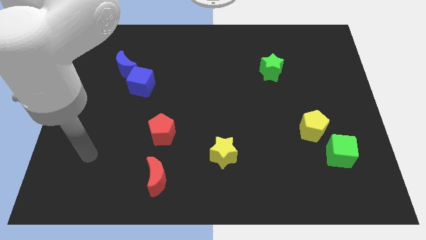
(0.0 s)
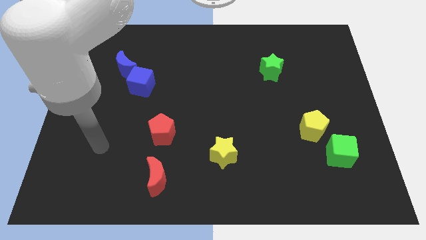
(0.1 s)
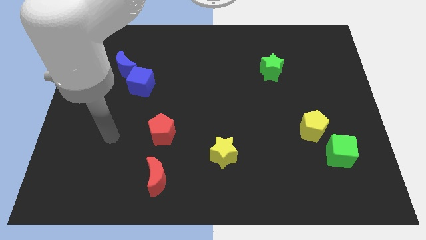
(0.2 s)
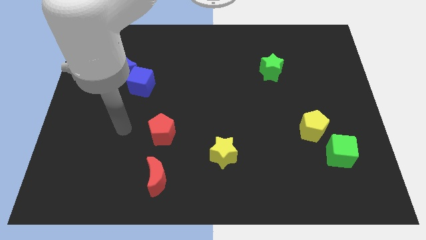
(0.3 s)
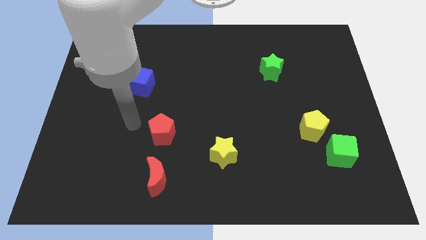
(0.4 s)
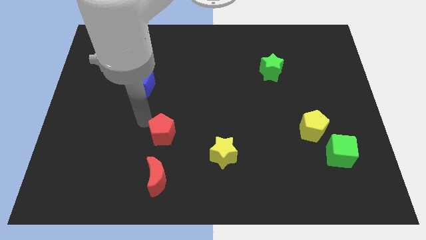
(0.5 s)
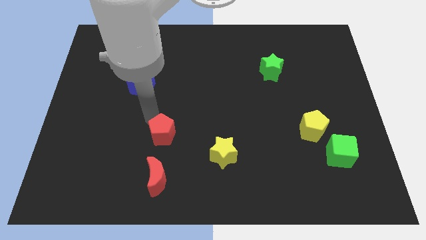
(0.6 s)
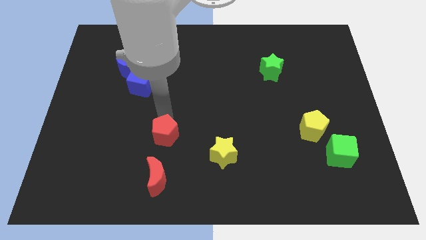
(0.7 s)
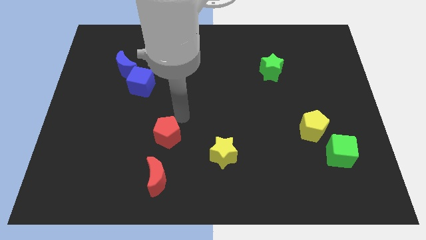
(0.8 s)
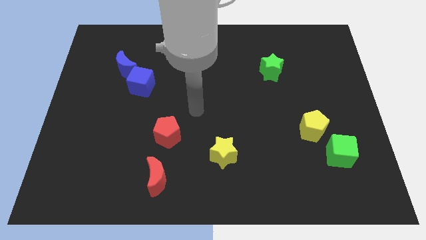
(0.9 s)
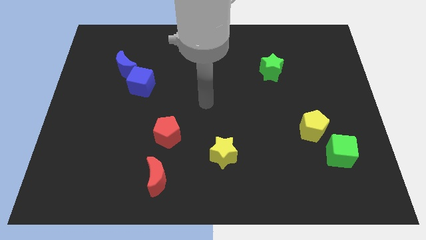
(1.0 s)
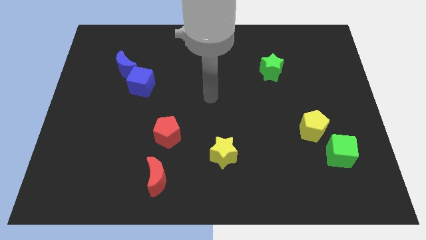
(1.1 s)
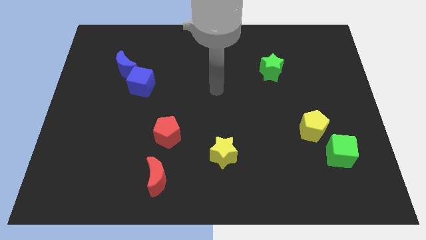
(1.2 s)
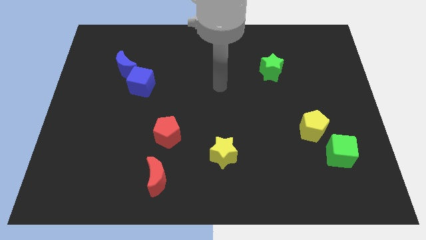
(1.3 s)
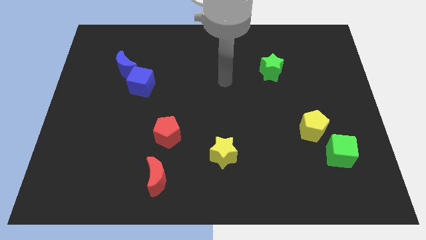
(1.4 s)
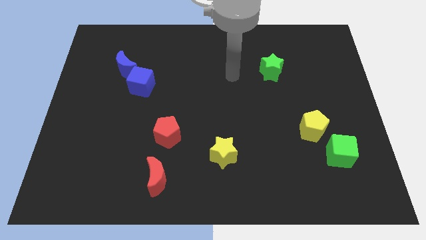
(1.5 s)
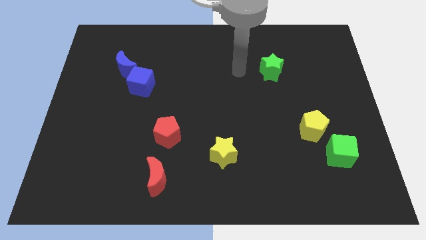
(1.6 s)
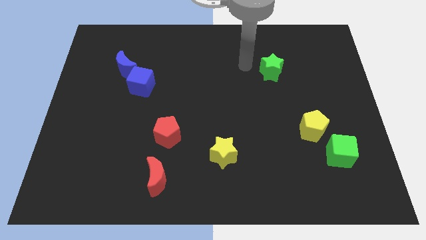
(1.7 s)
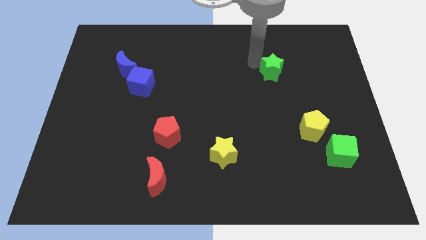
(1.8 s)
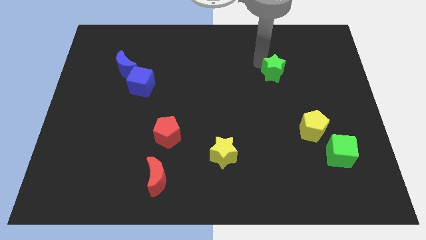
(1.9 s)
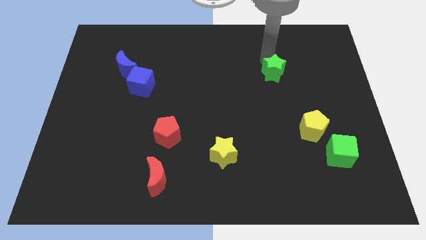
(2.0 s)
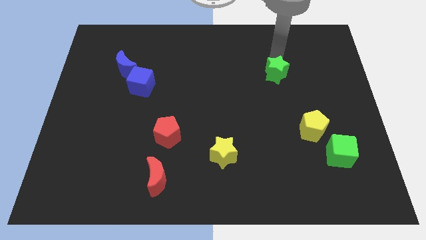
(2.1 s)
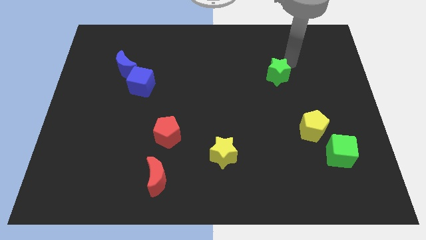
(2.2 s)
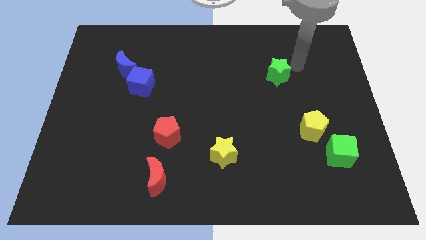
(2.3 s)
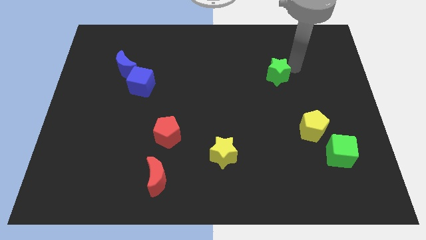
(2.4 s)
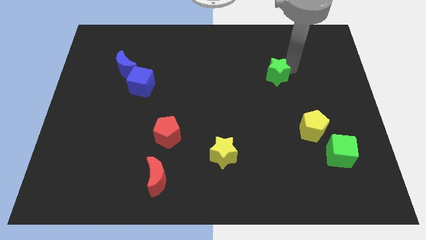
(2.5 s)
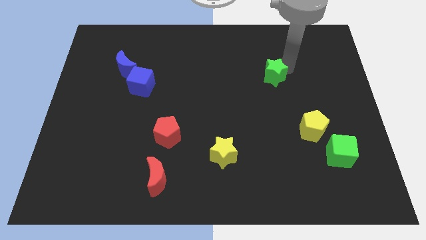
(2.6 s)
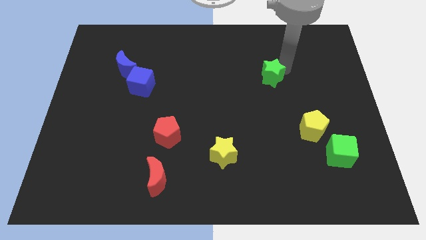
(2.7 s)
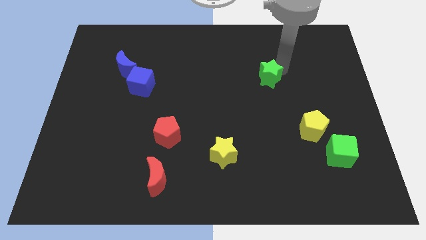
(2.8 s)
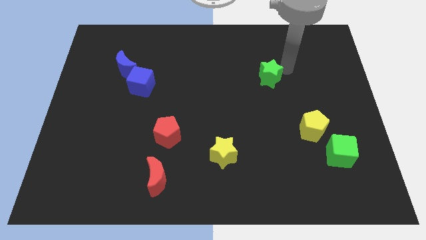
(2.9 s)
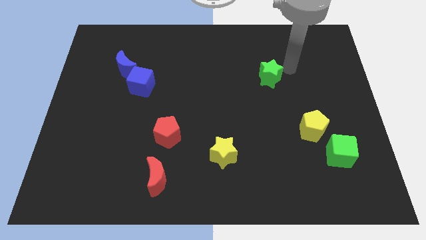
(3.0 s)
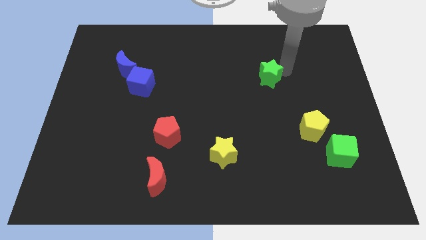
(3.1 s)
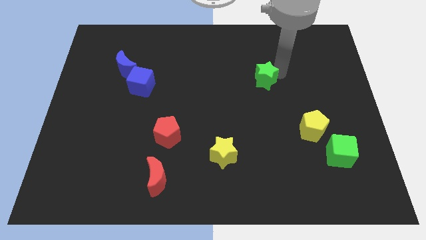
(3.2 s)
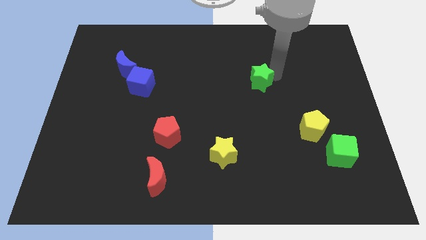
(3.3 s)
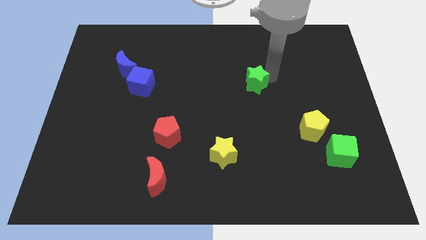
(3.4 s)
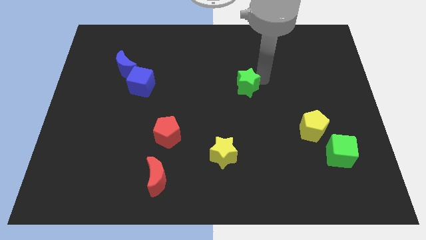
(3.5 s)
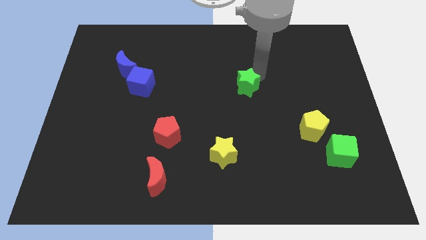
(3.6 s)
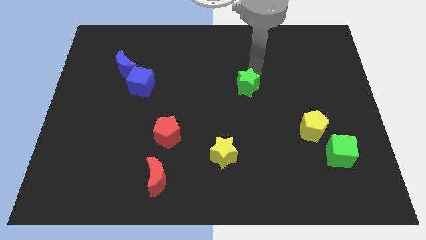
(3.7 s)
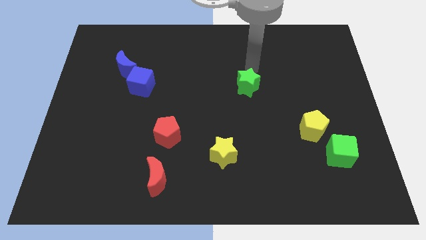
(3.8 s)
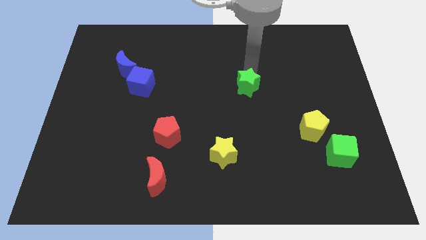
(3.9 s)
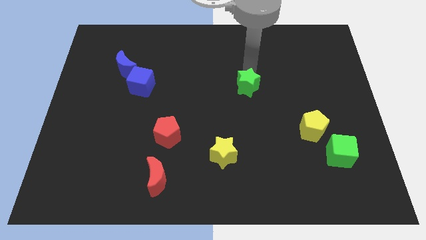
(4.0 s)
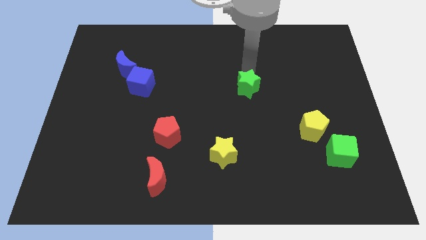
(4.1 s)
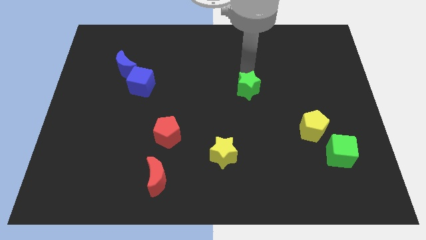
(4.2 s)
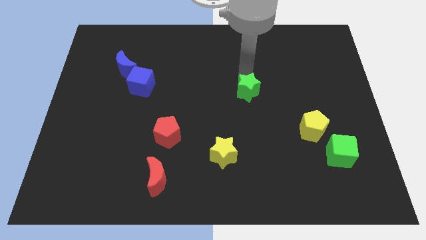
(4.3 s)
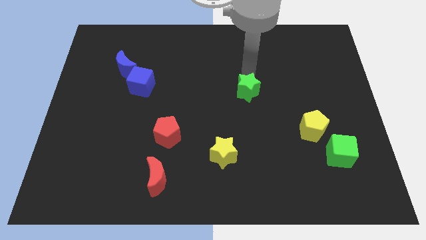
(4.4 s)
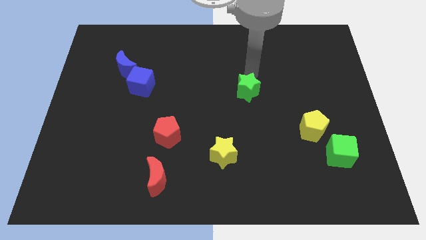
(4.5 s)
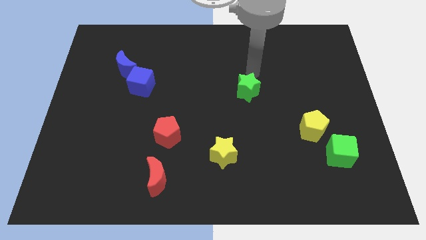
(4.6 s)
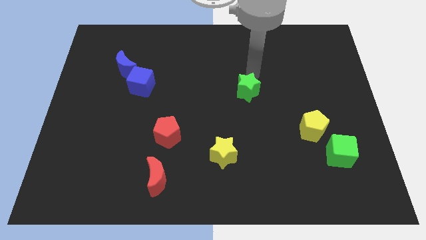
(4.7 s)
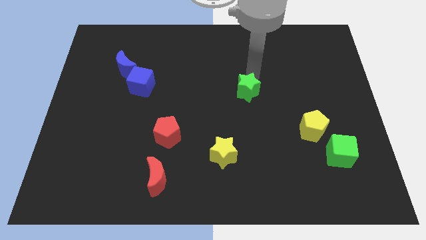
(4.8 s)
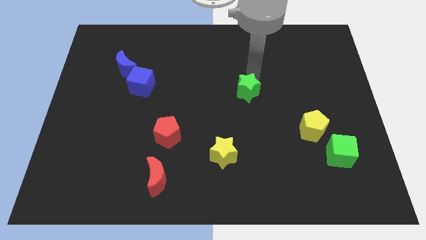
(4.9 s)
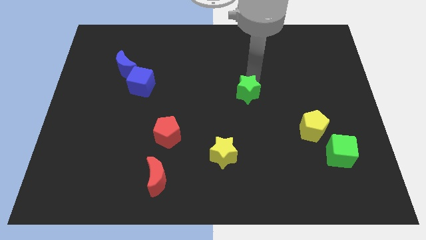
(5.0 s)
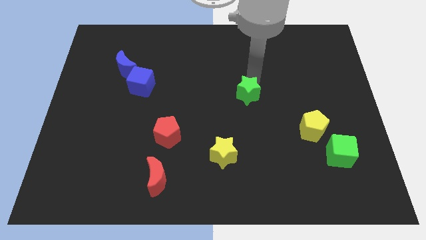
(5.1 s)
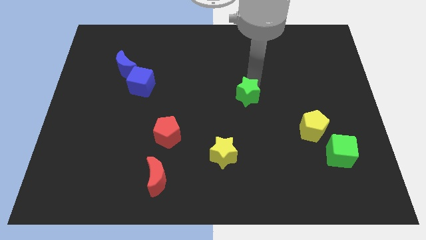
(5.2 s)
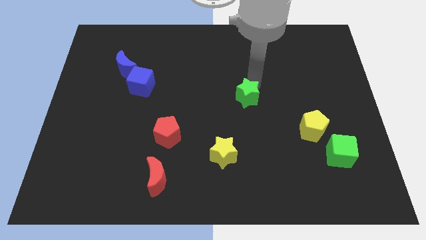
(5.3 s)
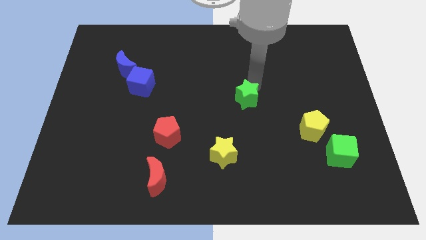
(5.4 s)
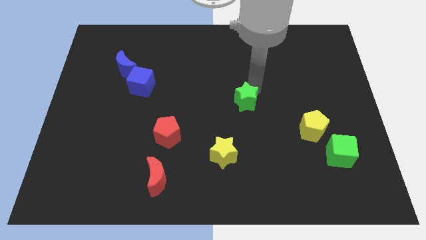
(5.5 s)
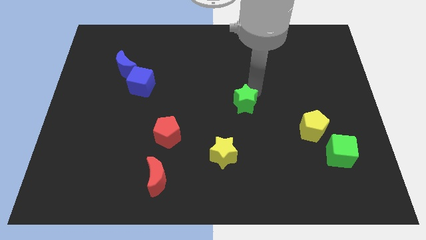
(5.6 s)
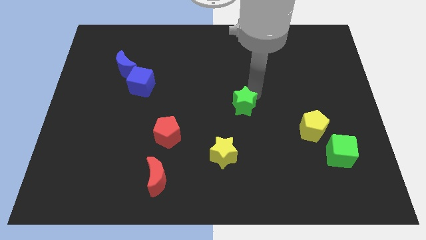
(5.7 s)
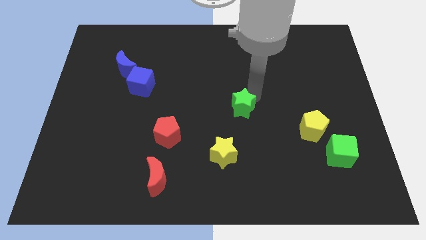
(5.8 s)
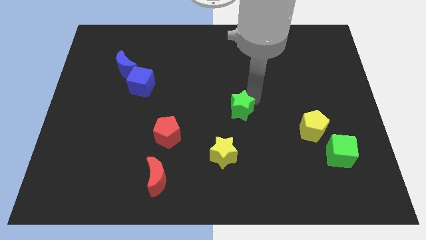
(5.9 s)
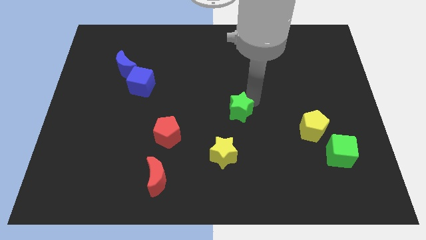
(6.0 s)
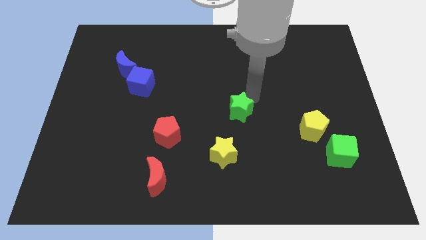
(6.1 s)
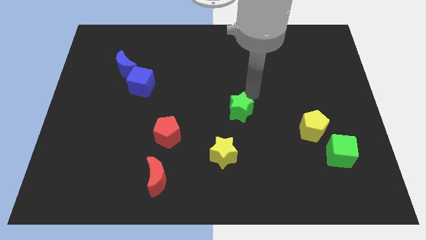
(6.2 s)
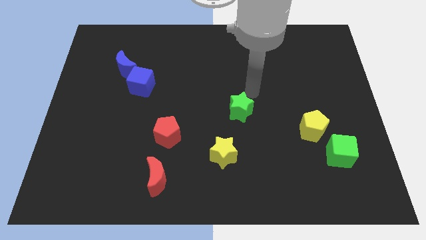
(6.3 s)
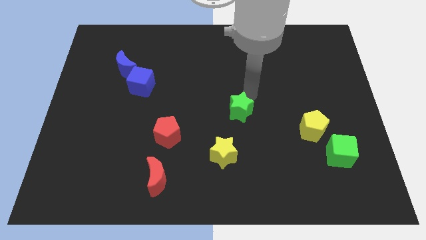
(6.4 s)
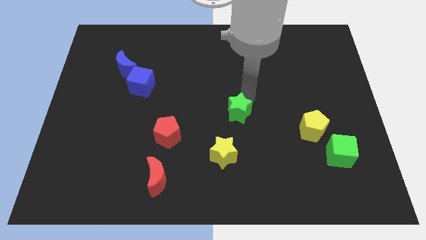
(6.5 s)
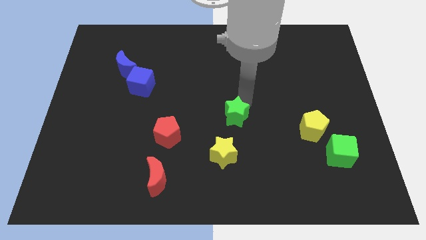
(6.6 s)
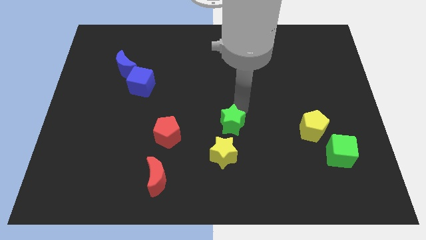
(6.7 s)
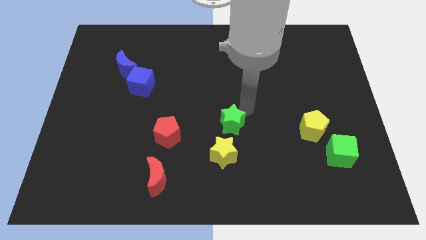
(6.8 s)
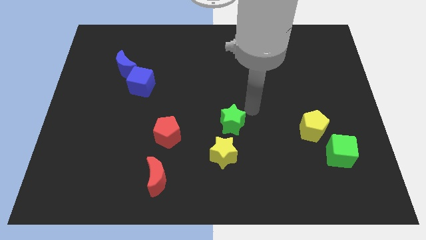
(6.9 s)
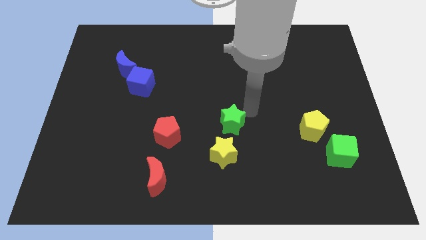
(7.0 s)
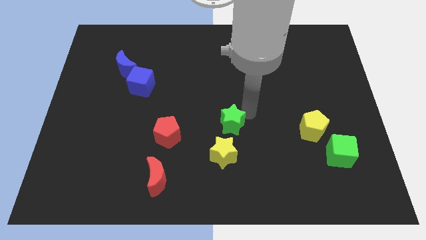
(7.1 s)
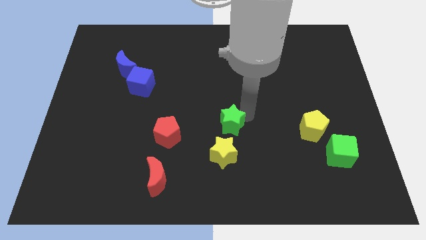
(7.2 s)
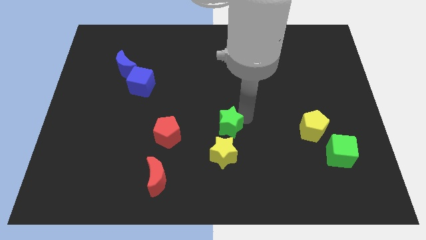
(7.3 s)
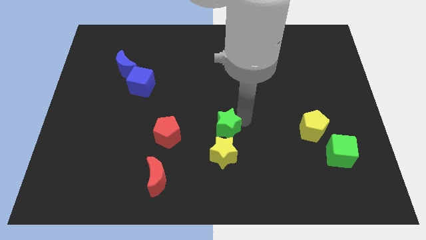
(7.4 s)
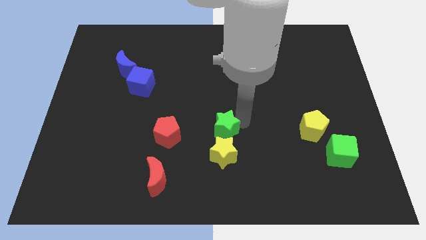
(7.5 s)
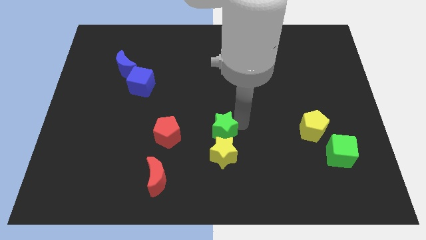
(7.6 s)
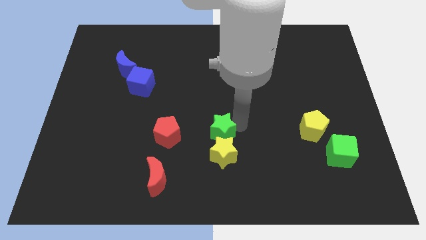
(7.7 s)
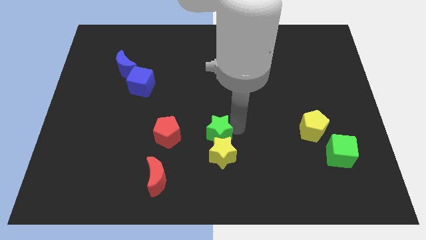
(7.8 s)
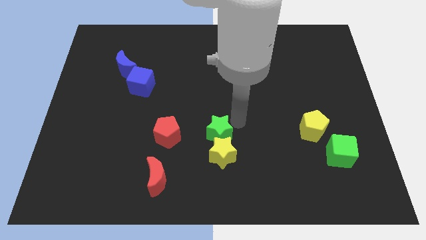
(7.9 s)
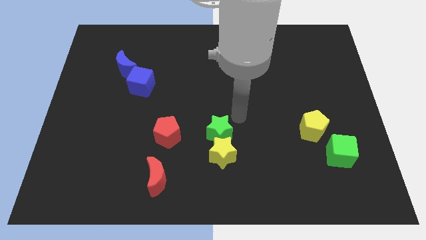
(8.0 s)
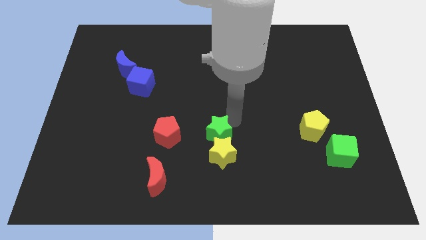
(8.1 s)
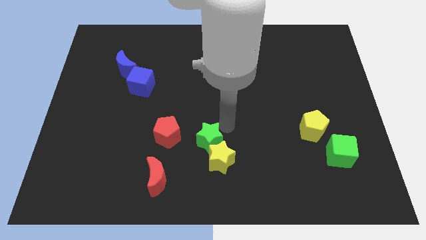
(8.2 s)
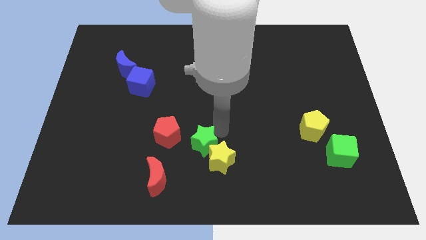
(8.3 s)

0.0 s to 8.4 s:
push the green star diagonally down and to the right of the red pentagon
